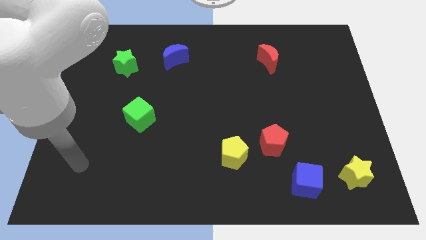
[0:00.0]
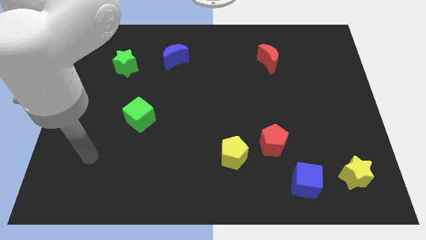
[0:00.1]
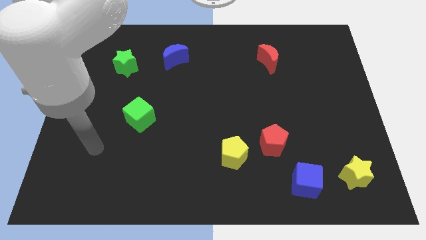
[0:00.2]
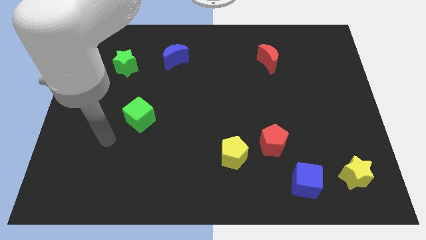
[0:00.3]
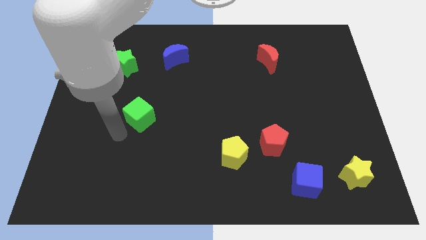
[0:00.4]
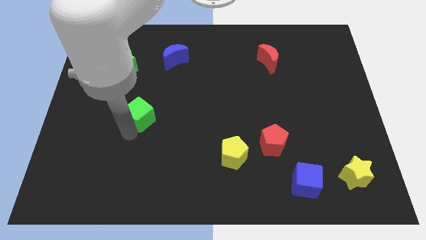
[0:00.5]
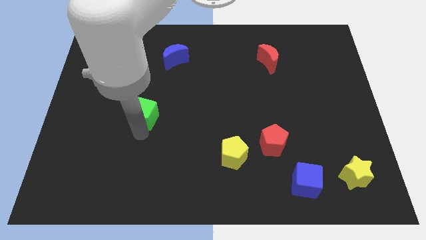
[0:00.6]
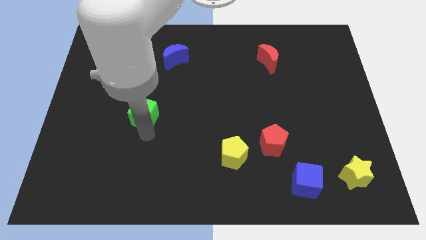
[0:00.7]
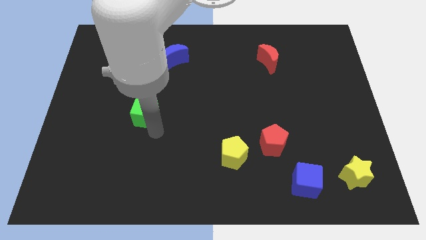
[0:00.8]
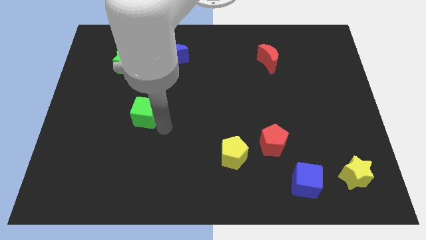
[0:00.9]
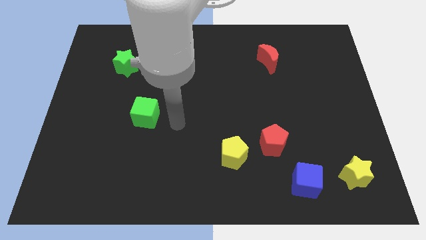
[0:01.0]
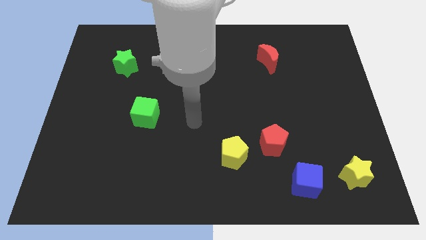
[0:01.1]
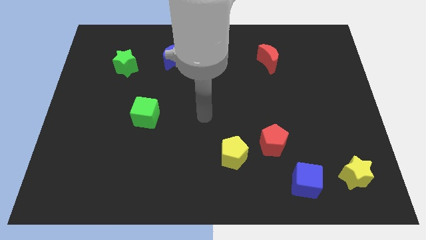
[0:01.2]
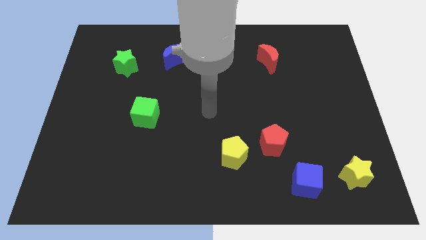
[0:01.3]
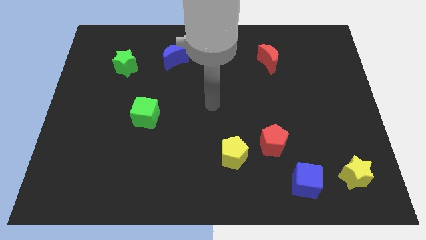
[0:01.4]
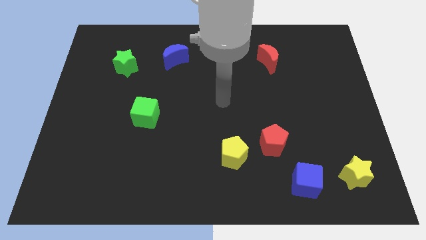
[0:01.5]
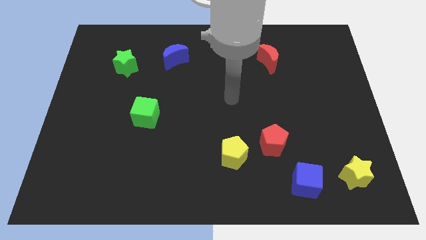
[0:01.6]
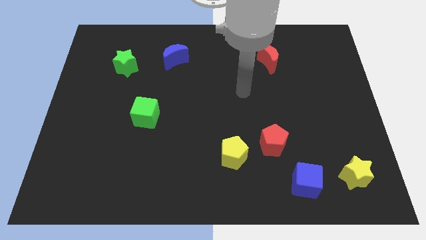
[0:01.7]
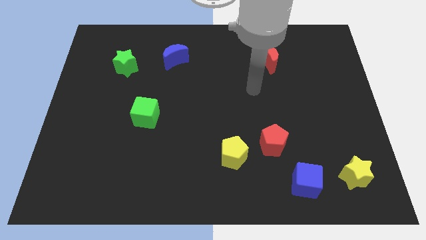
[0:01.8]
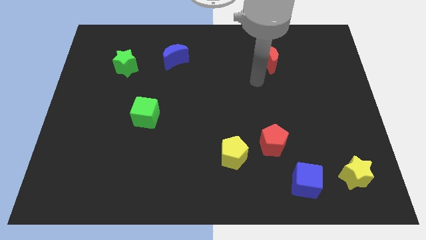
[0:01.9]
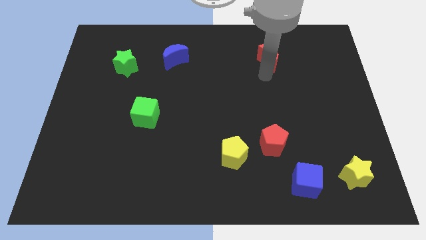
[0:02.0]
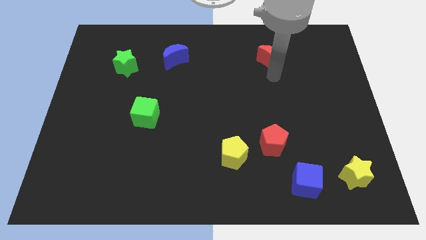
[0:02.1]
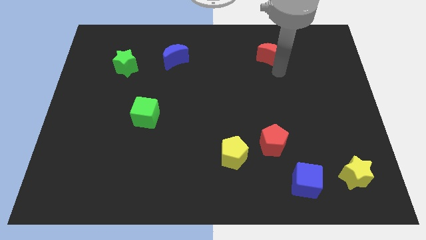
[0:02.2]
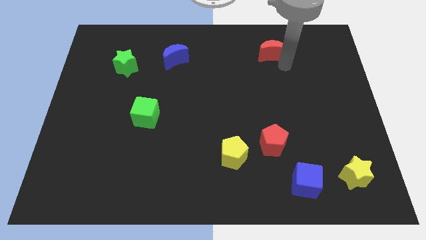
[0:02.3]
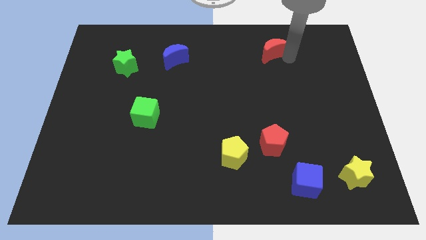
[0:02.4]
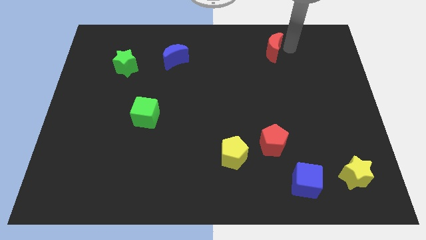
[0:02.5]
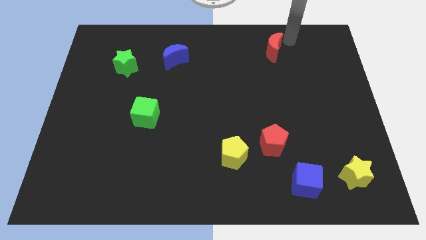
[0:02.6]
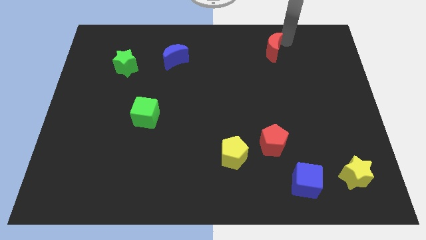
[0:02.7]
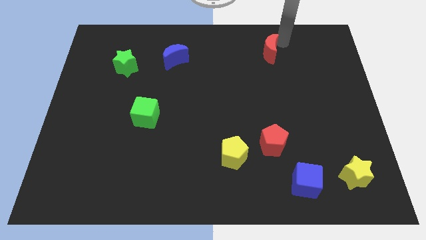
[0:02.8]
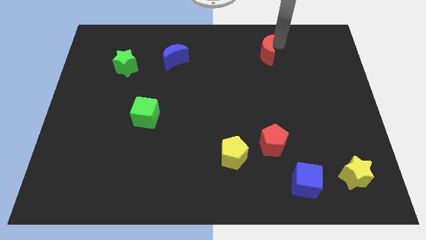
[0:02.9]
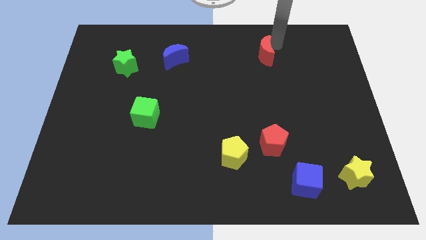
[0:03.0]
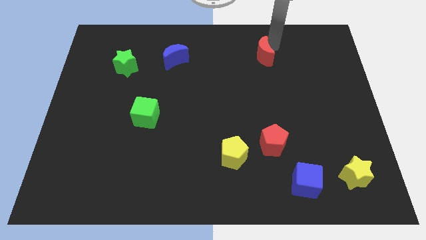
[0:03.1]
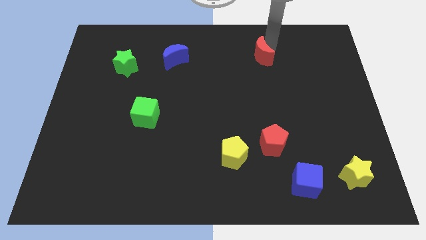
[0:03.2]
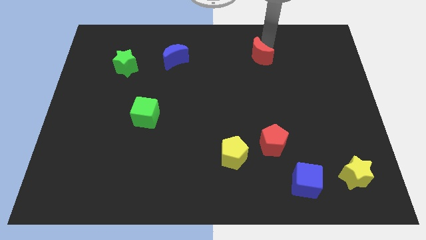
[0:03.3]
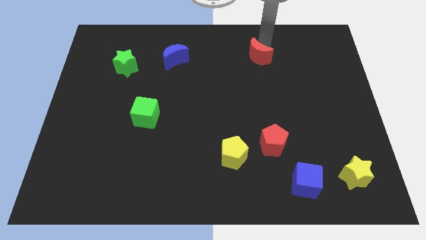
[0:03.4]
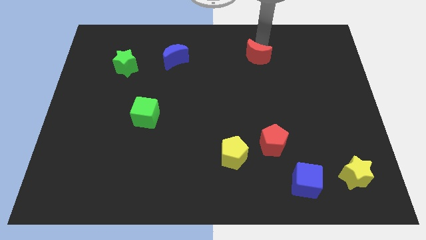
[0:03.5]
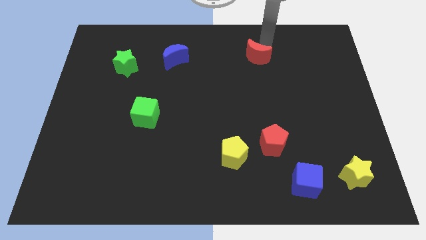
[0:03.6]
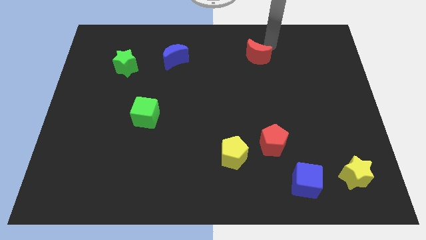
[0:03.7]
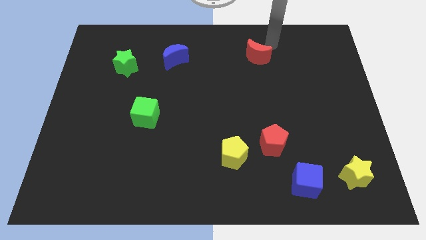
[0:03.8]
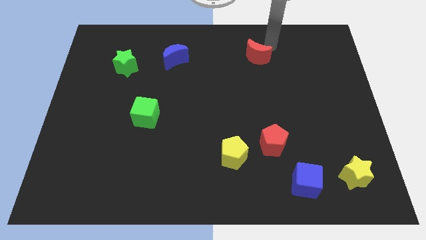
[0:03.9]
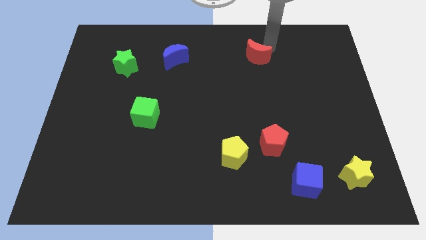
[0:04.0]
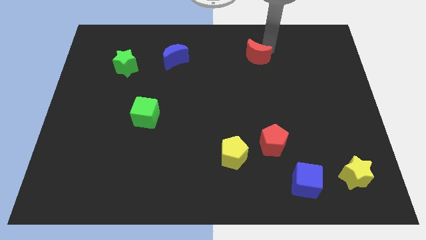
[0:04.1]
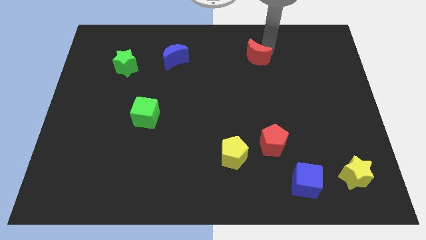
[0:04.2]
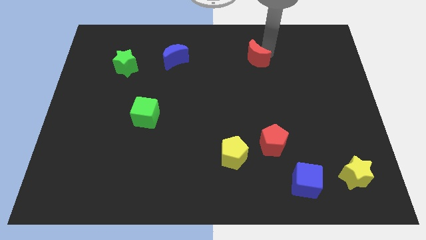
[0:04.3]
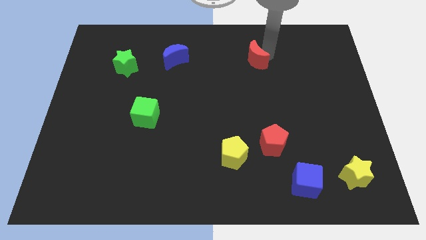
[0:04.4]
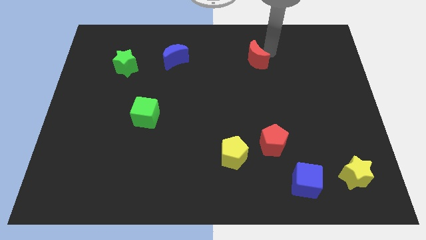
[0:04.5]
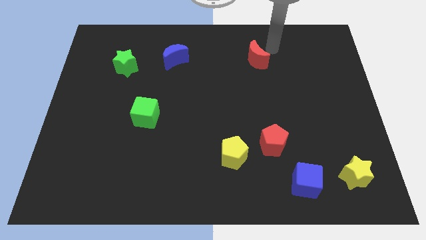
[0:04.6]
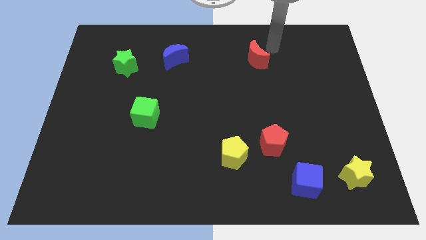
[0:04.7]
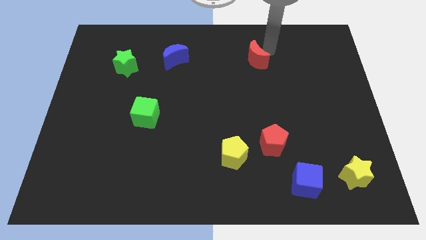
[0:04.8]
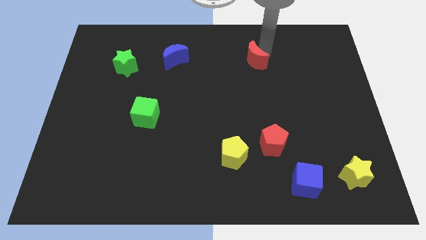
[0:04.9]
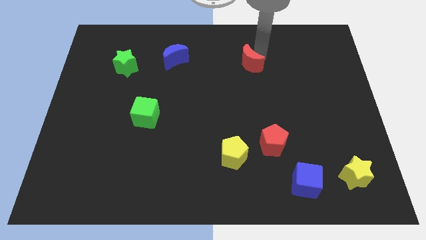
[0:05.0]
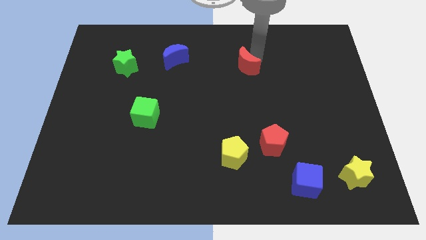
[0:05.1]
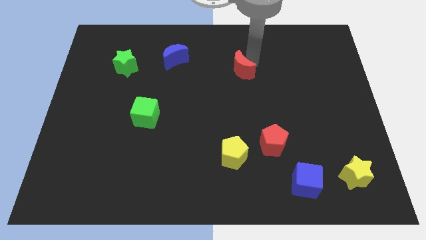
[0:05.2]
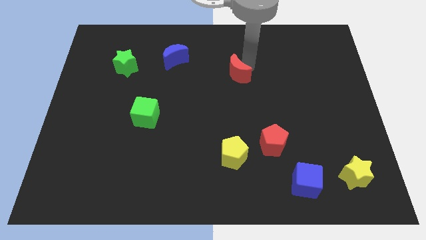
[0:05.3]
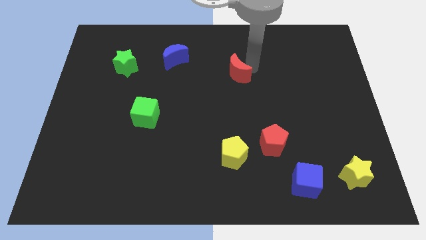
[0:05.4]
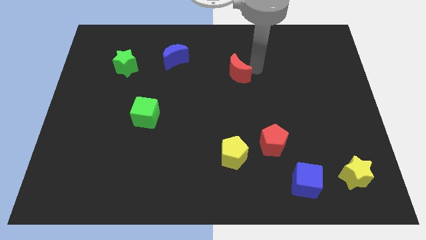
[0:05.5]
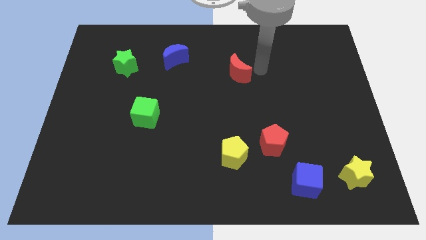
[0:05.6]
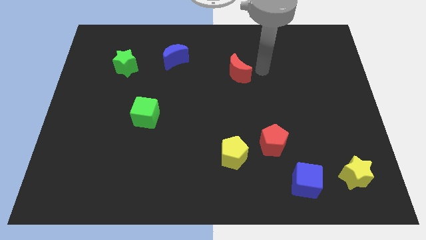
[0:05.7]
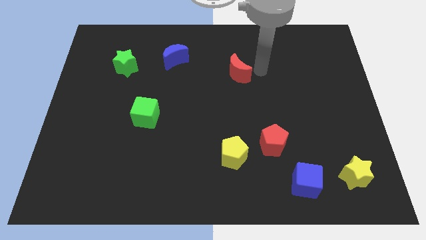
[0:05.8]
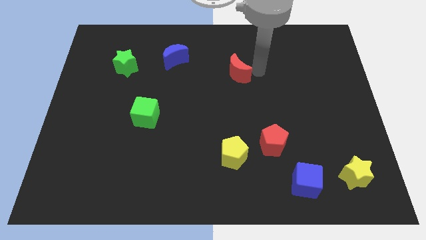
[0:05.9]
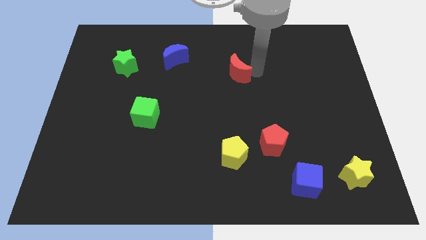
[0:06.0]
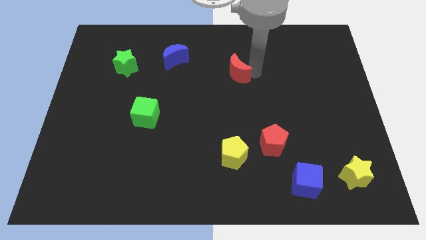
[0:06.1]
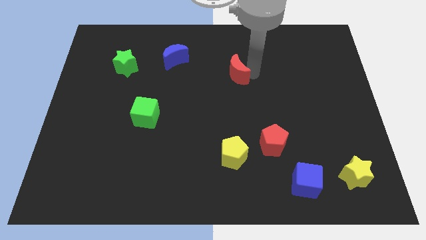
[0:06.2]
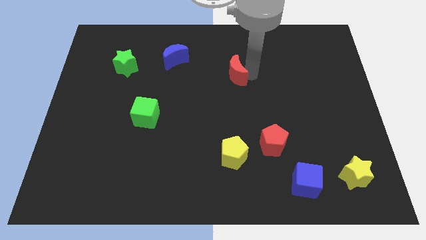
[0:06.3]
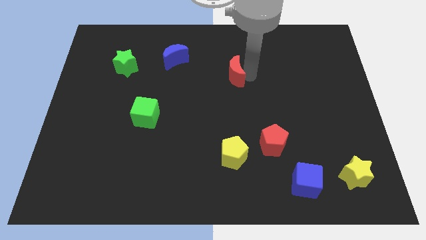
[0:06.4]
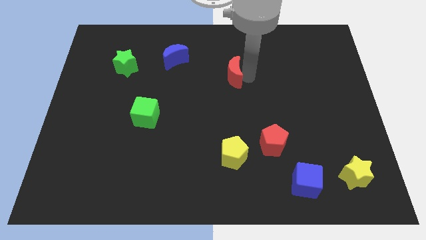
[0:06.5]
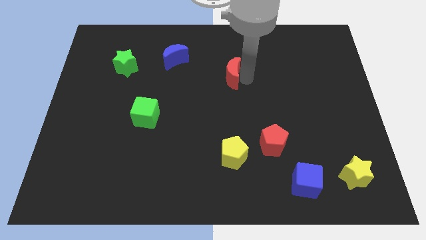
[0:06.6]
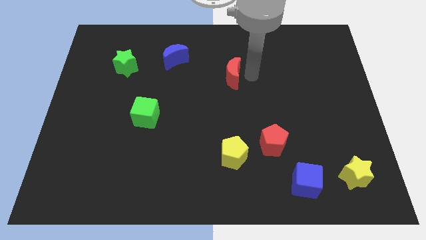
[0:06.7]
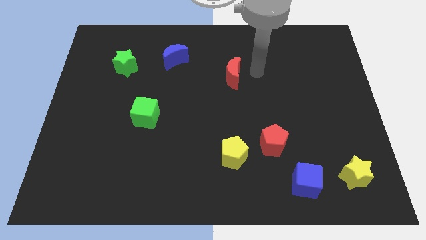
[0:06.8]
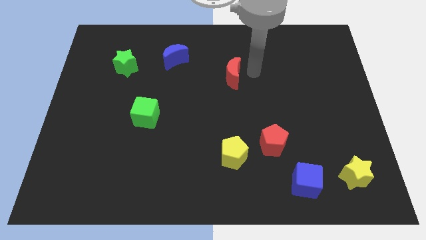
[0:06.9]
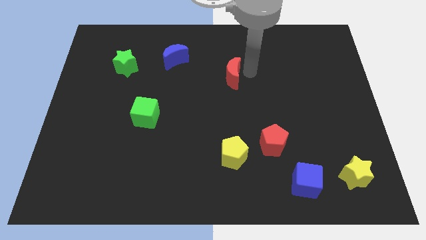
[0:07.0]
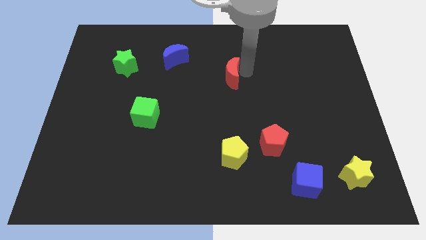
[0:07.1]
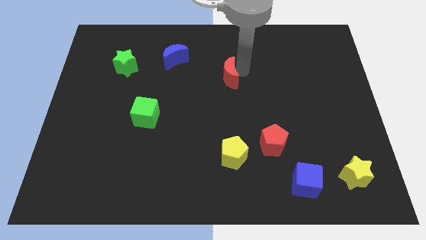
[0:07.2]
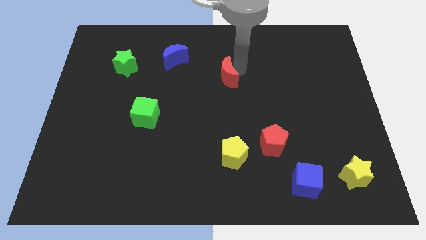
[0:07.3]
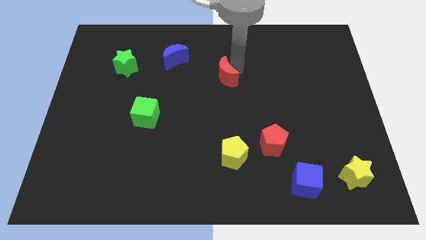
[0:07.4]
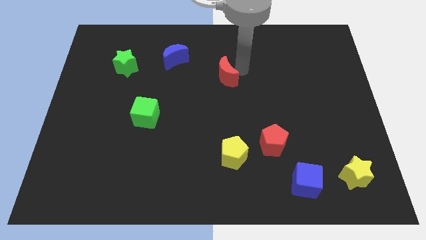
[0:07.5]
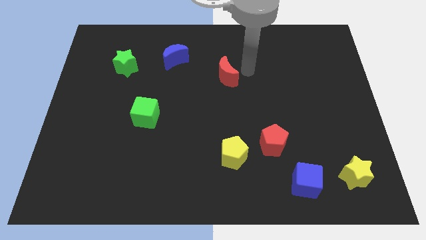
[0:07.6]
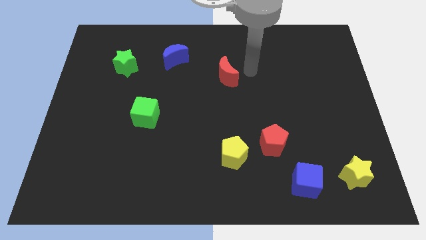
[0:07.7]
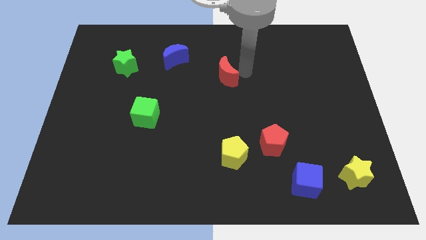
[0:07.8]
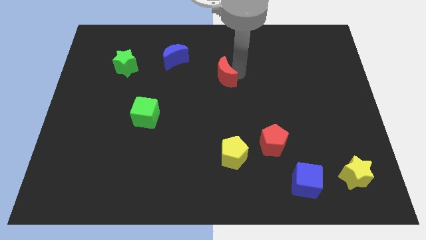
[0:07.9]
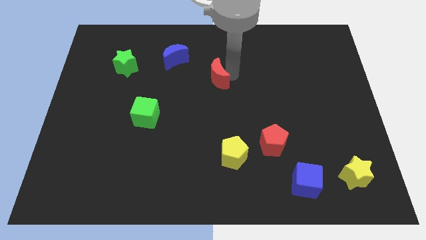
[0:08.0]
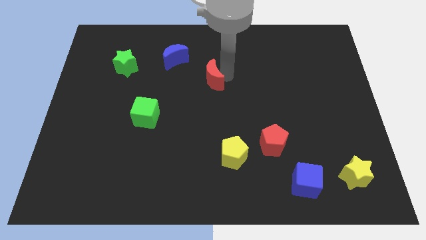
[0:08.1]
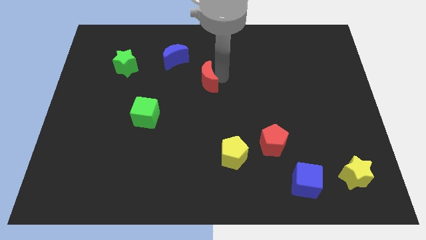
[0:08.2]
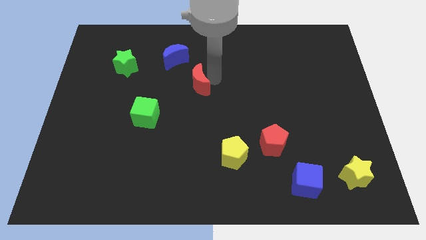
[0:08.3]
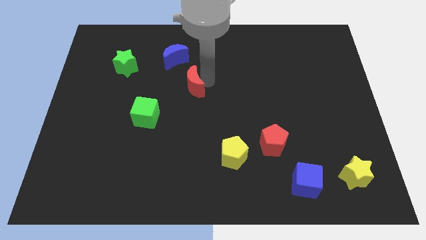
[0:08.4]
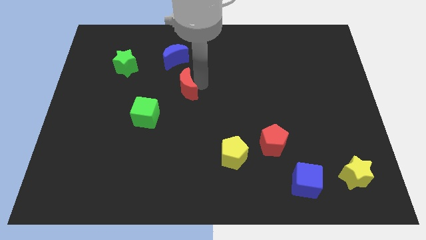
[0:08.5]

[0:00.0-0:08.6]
move the red moon to the bottom side of the blue moon
